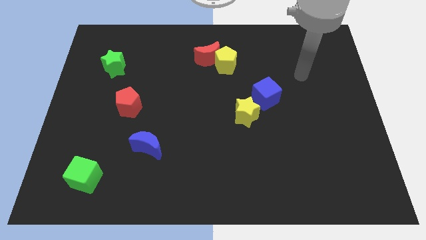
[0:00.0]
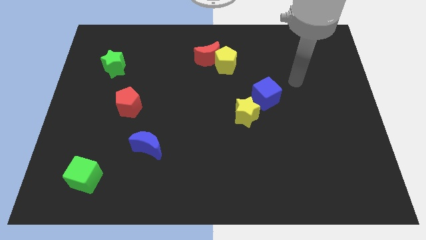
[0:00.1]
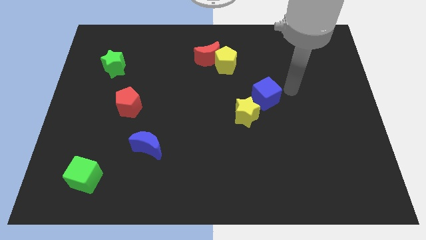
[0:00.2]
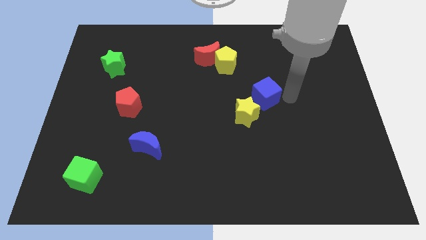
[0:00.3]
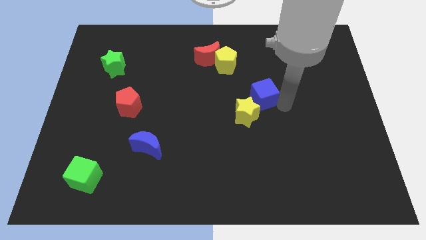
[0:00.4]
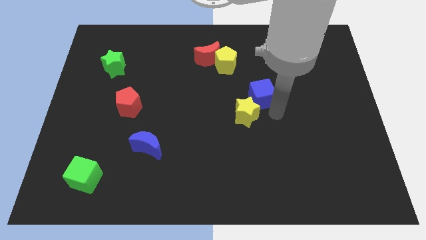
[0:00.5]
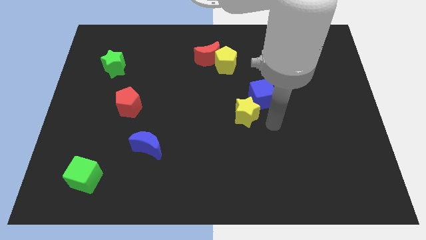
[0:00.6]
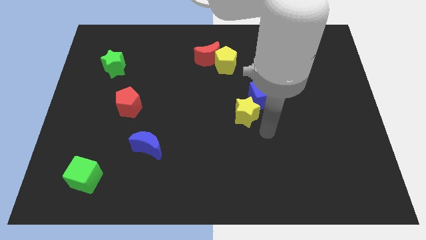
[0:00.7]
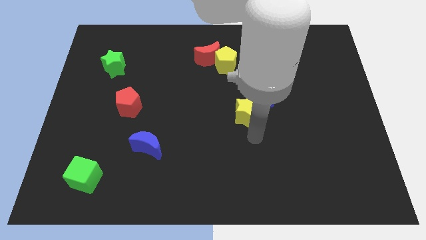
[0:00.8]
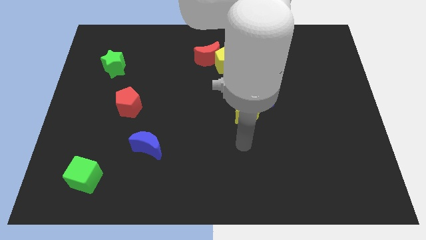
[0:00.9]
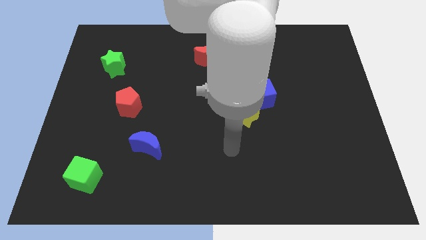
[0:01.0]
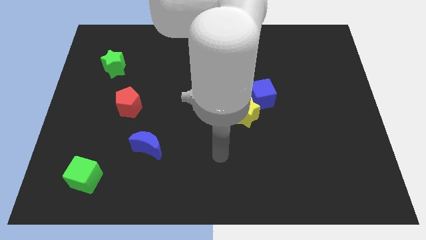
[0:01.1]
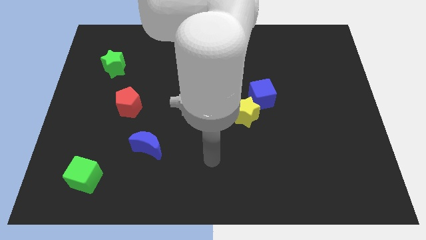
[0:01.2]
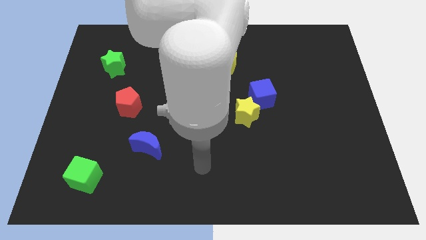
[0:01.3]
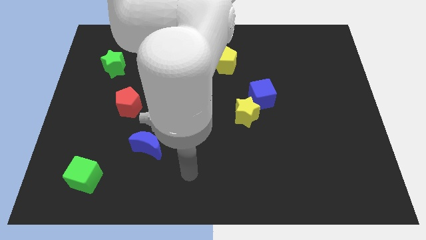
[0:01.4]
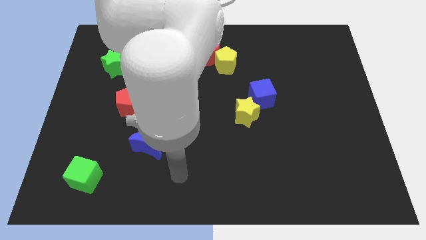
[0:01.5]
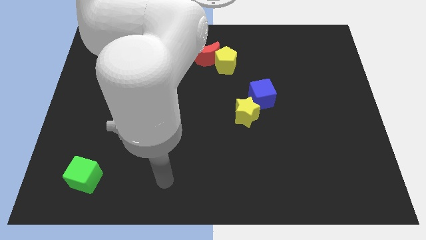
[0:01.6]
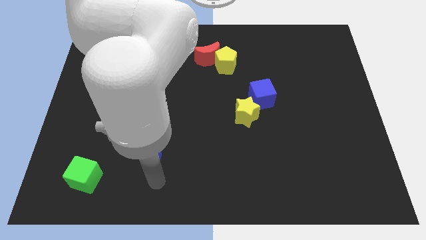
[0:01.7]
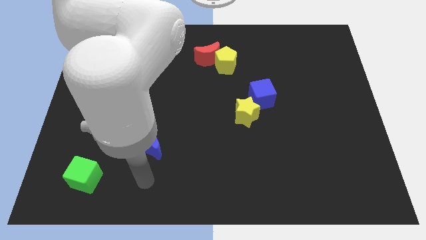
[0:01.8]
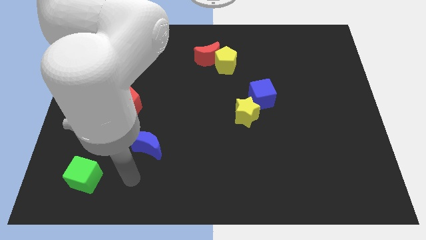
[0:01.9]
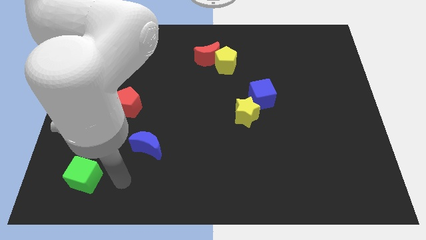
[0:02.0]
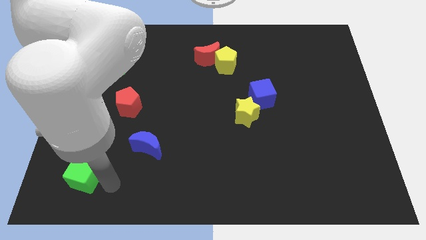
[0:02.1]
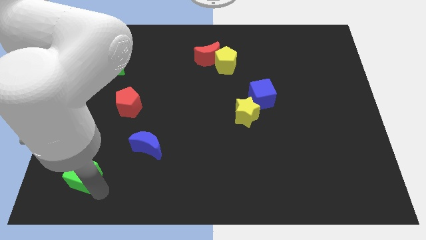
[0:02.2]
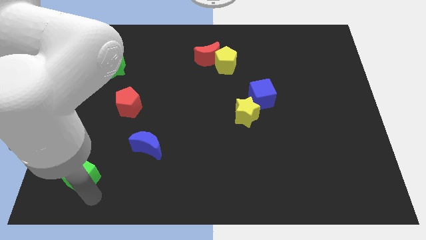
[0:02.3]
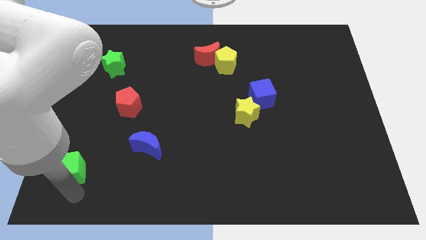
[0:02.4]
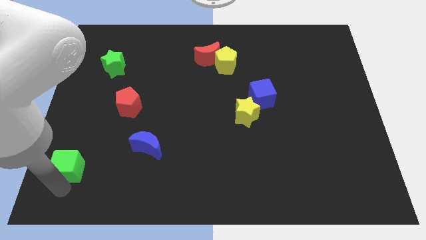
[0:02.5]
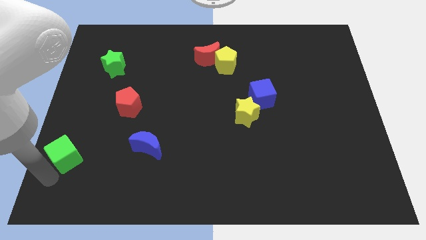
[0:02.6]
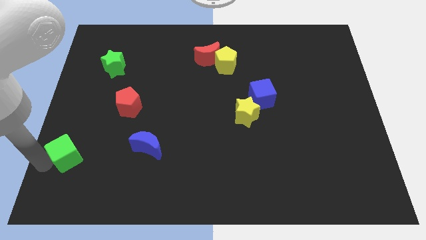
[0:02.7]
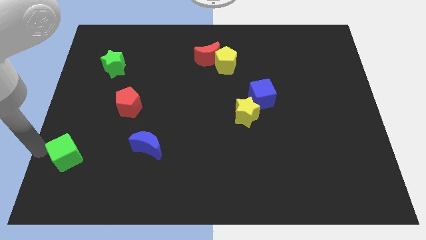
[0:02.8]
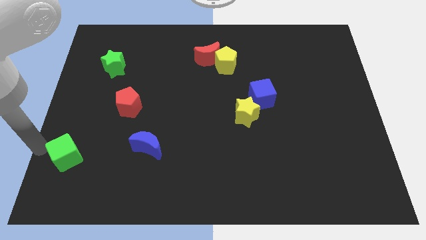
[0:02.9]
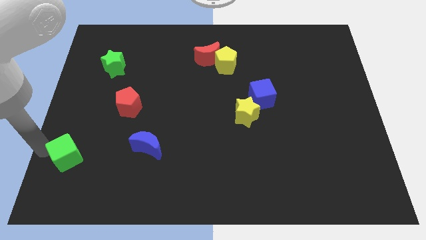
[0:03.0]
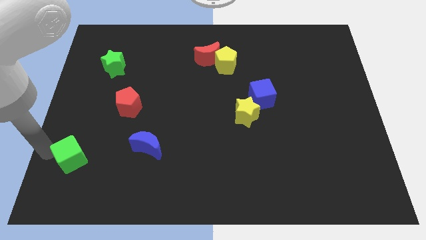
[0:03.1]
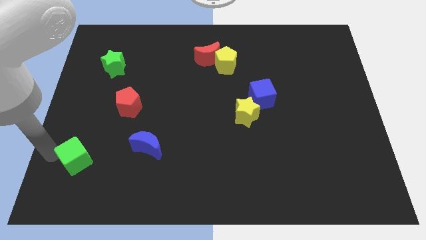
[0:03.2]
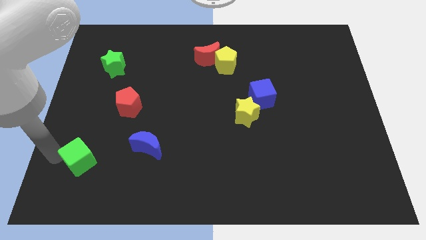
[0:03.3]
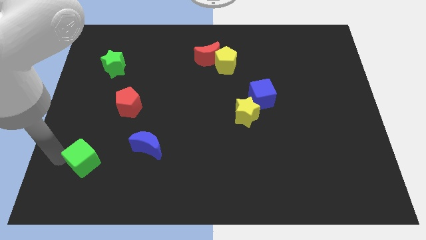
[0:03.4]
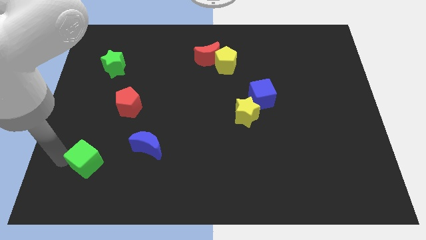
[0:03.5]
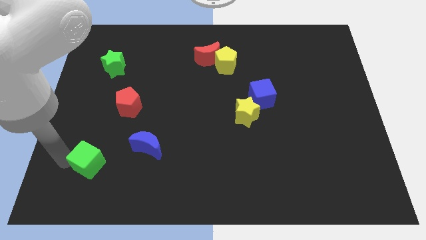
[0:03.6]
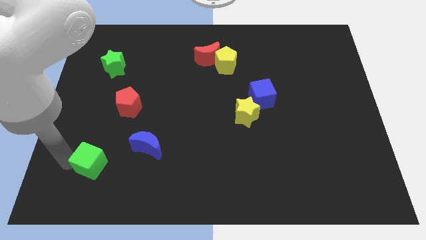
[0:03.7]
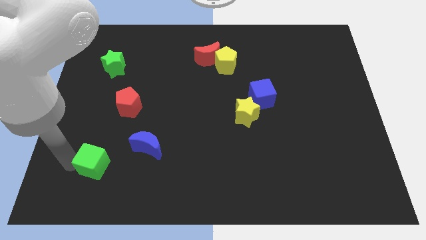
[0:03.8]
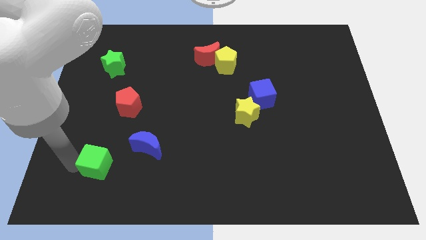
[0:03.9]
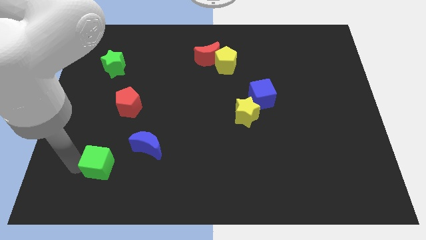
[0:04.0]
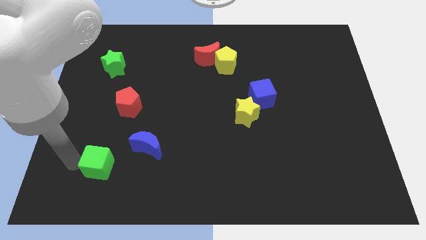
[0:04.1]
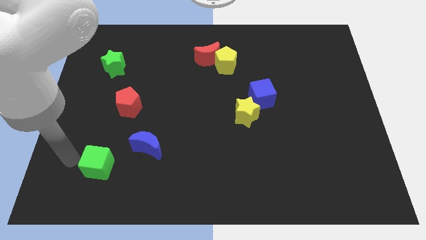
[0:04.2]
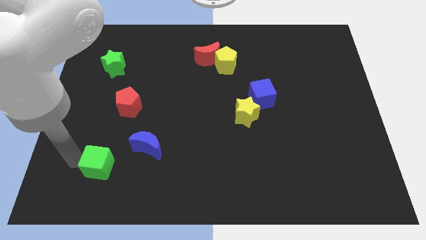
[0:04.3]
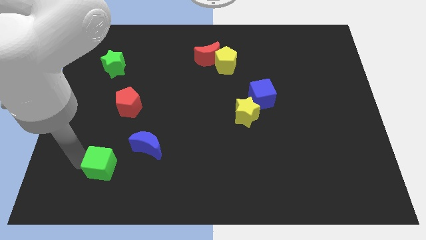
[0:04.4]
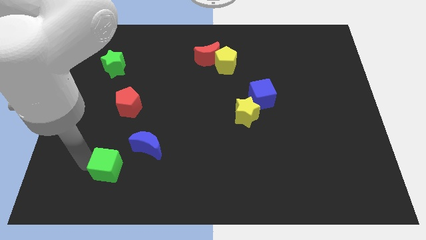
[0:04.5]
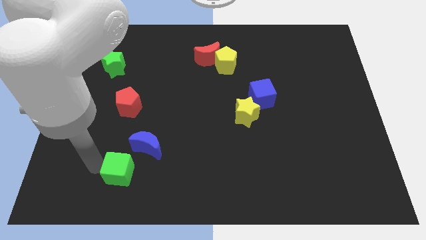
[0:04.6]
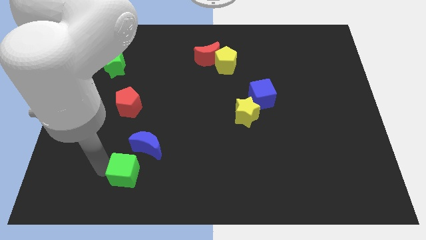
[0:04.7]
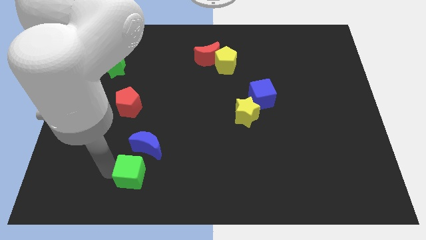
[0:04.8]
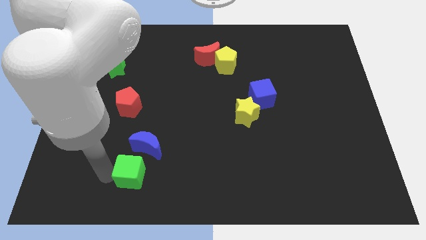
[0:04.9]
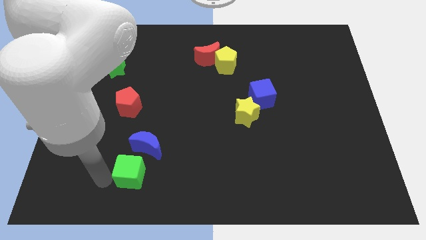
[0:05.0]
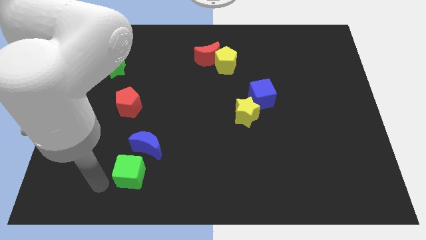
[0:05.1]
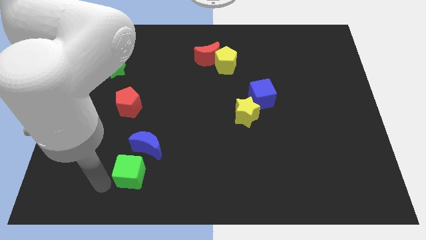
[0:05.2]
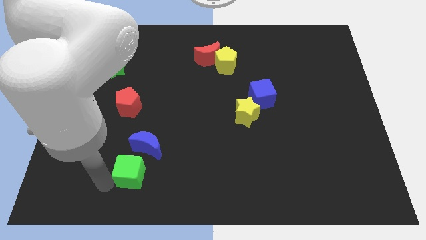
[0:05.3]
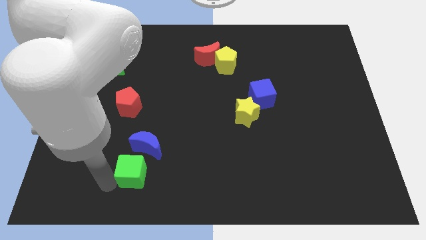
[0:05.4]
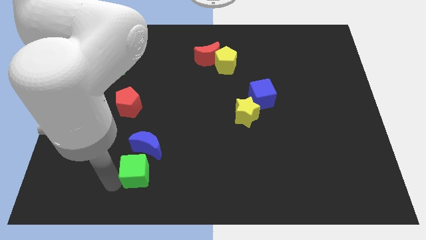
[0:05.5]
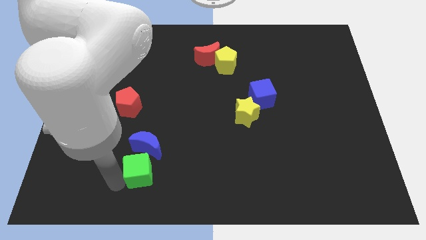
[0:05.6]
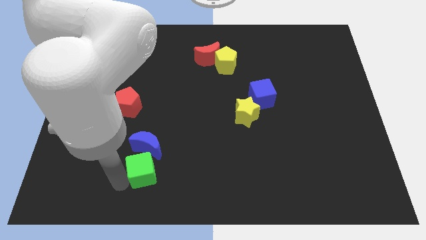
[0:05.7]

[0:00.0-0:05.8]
move the green cube to the bottom right side of the blue moon

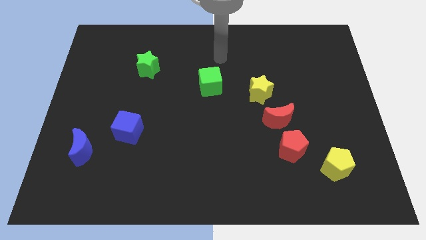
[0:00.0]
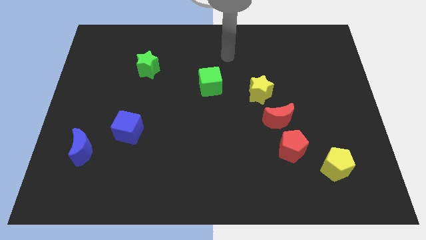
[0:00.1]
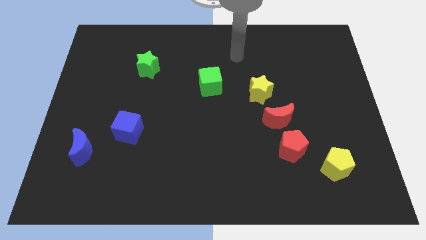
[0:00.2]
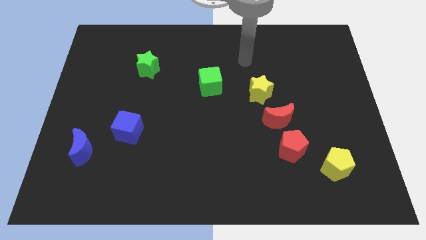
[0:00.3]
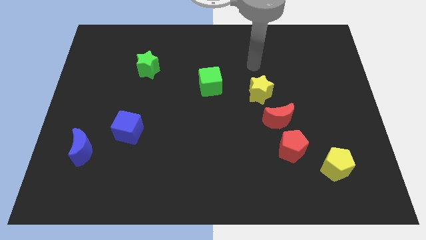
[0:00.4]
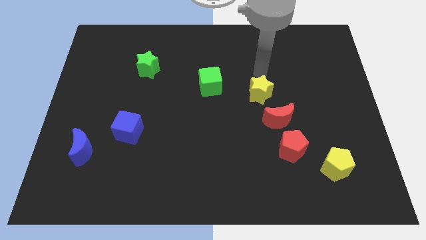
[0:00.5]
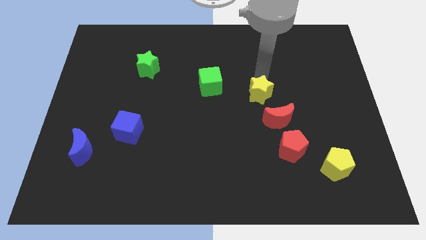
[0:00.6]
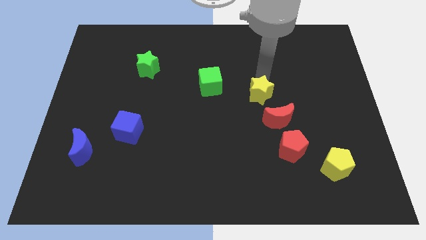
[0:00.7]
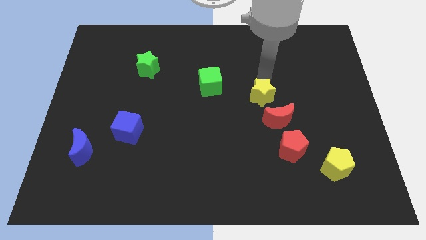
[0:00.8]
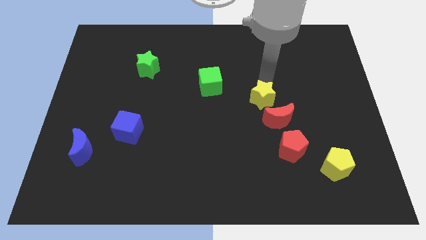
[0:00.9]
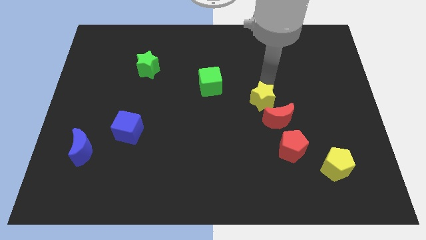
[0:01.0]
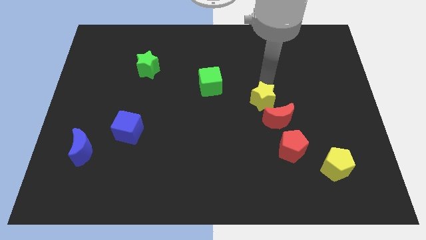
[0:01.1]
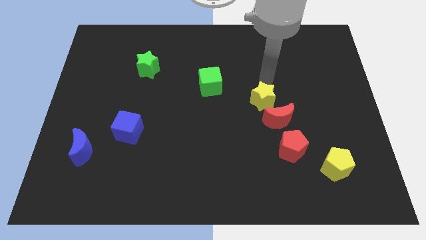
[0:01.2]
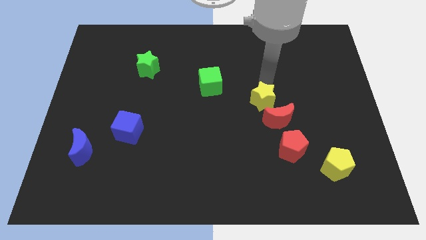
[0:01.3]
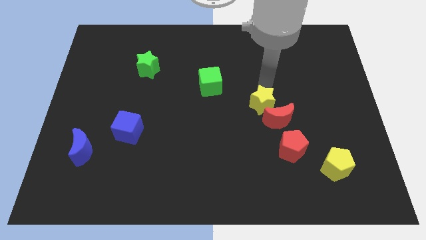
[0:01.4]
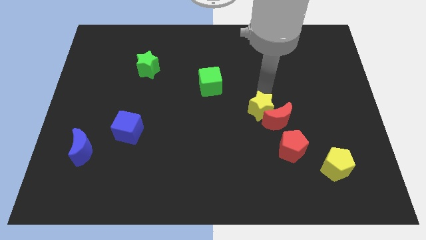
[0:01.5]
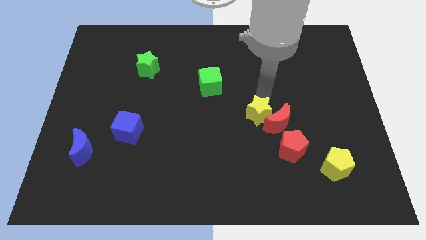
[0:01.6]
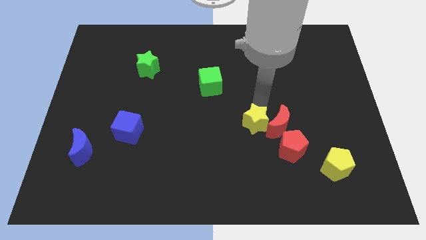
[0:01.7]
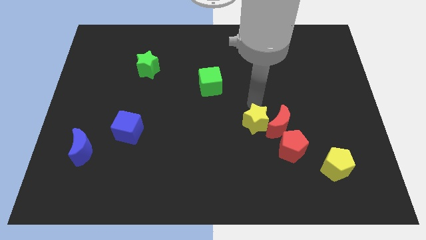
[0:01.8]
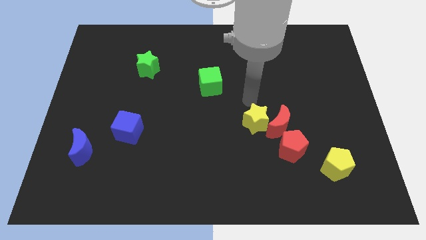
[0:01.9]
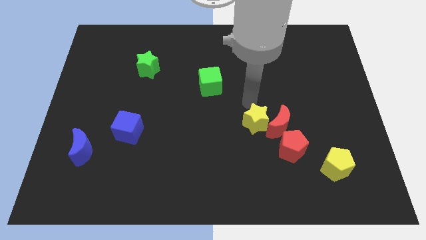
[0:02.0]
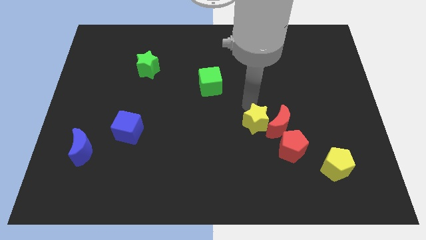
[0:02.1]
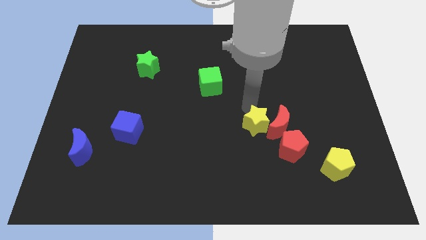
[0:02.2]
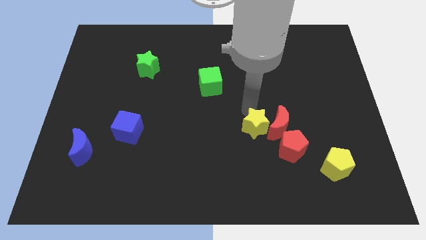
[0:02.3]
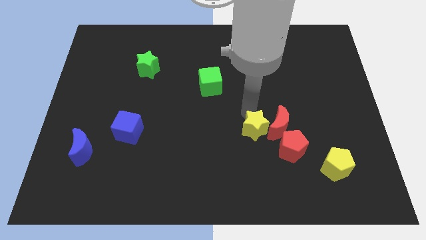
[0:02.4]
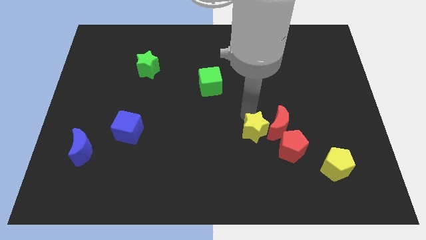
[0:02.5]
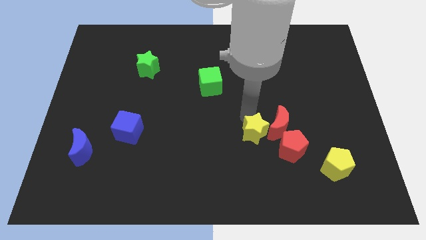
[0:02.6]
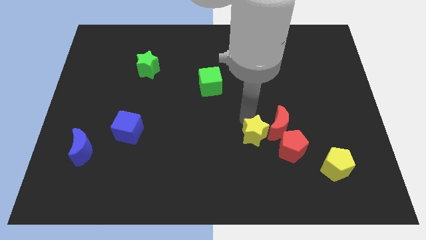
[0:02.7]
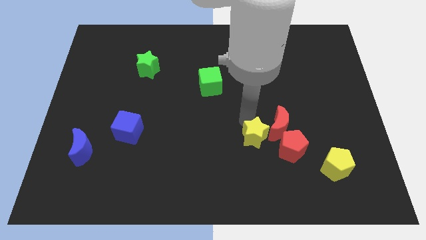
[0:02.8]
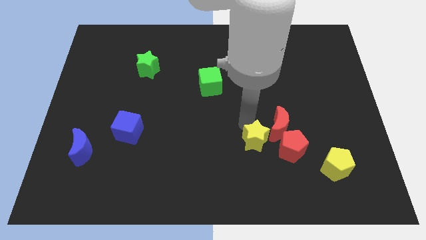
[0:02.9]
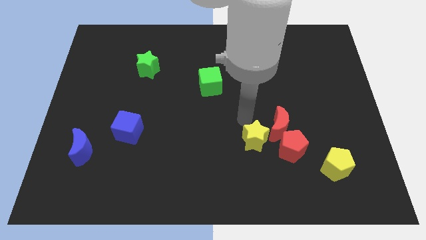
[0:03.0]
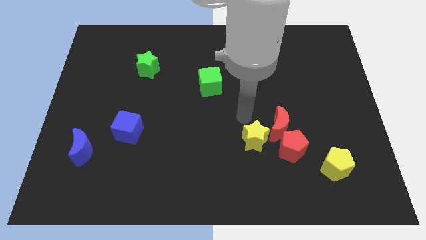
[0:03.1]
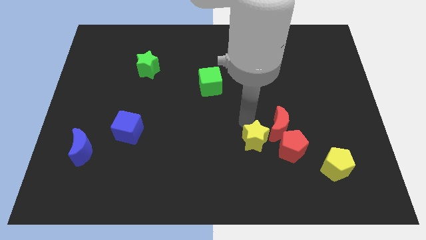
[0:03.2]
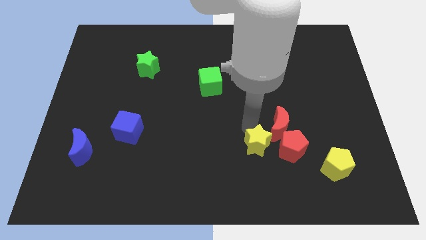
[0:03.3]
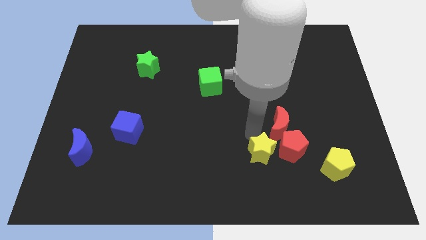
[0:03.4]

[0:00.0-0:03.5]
push the yellow star to the bottom left side of the red pentagon
